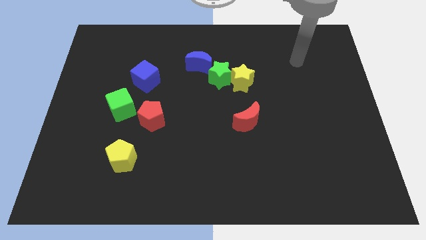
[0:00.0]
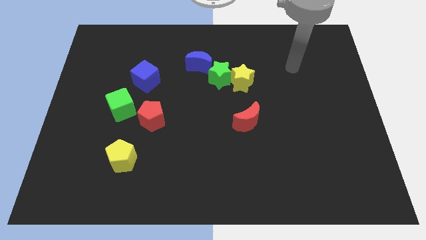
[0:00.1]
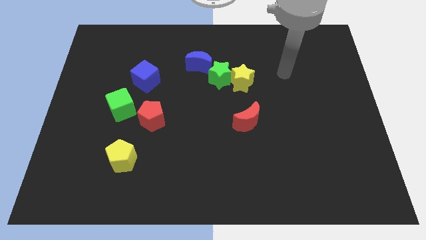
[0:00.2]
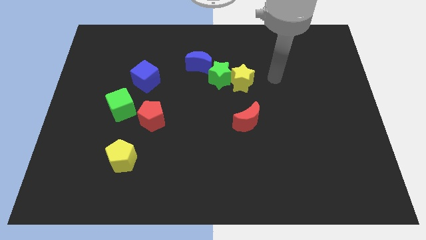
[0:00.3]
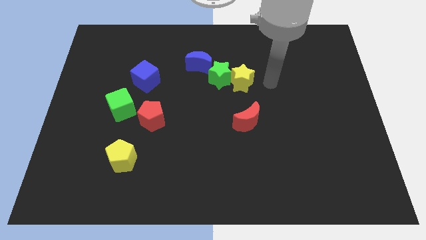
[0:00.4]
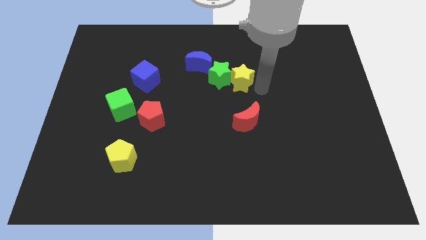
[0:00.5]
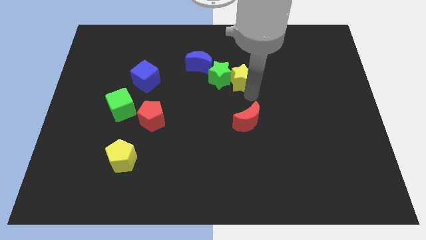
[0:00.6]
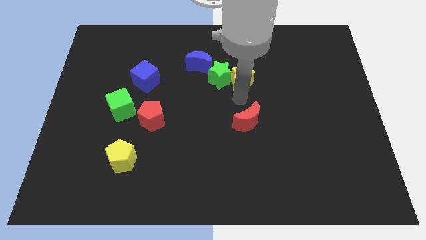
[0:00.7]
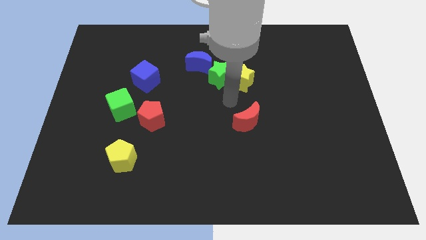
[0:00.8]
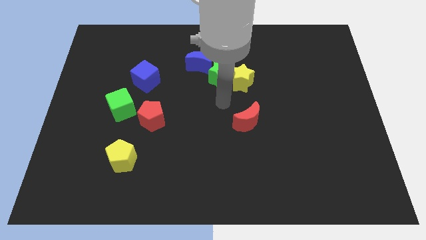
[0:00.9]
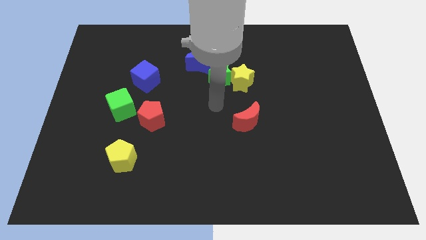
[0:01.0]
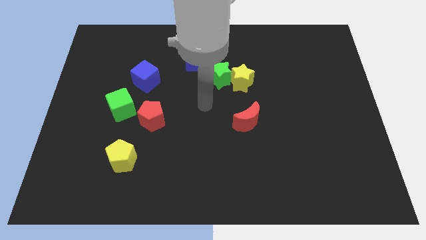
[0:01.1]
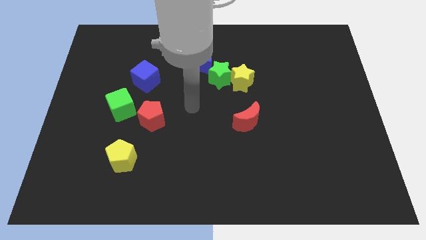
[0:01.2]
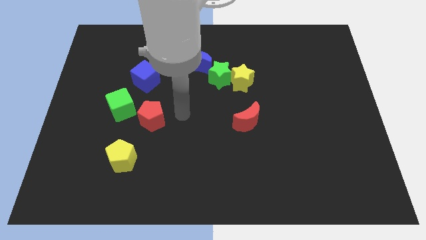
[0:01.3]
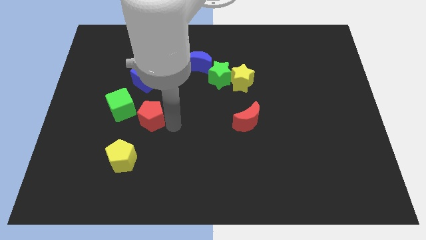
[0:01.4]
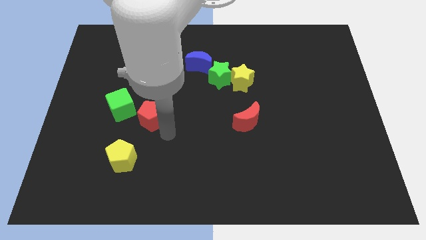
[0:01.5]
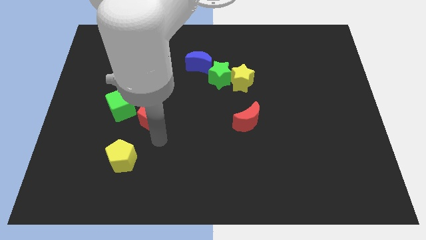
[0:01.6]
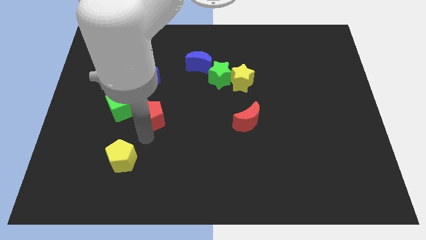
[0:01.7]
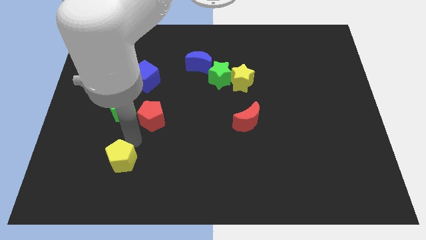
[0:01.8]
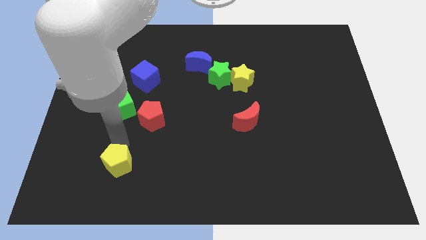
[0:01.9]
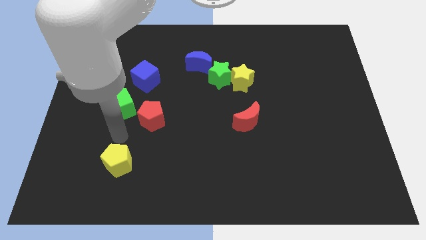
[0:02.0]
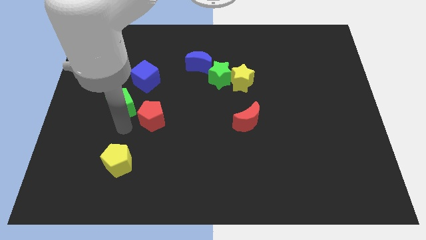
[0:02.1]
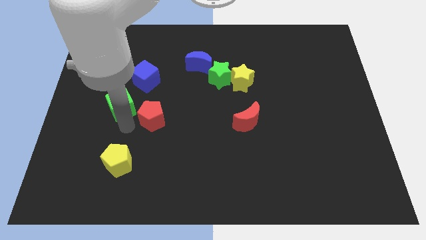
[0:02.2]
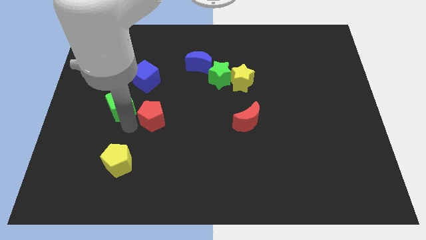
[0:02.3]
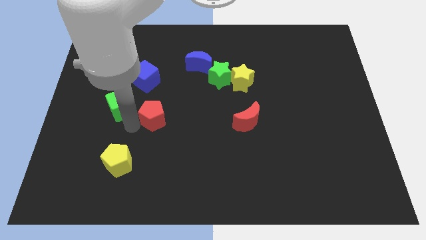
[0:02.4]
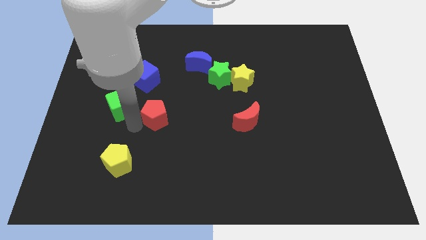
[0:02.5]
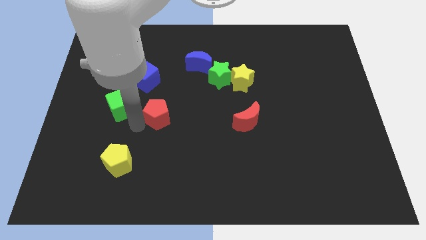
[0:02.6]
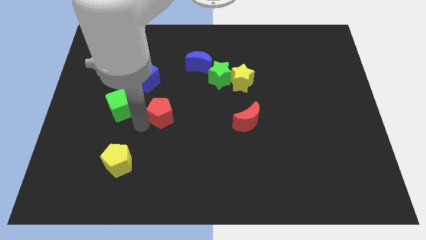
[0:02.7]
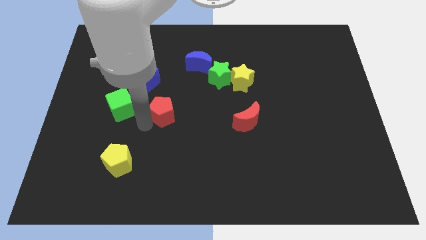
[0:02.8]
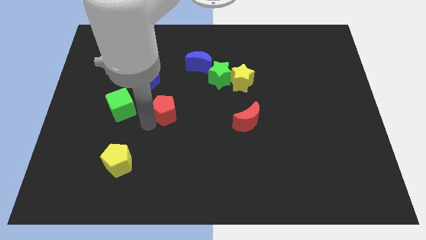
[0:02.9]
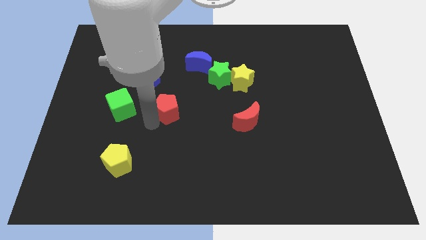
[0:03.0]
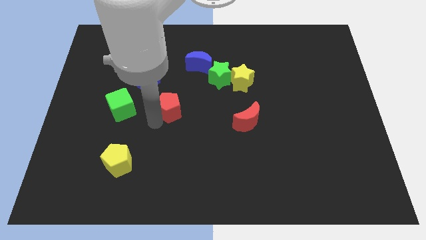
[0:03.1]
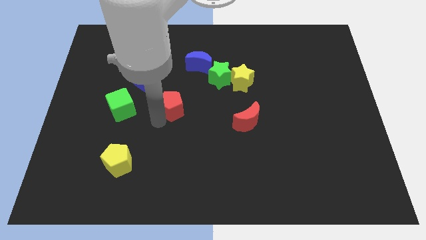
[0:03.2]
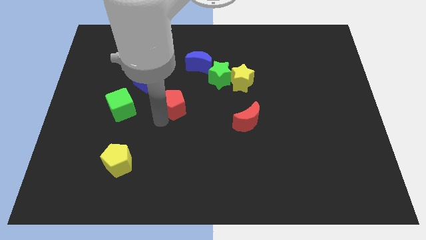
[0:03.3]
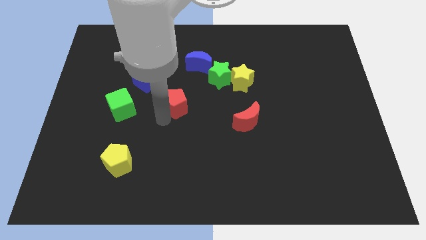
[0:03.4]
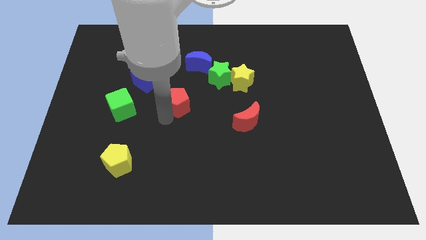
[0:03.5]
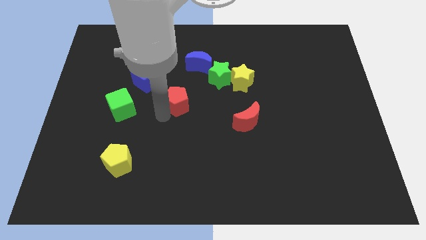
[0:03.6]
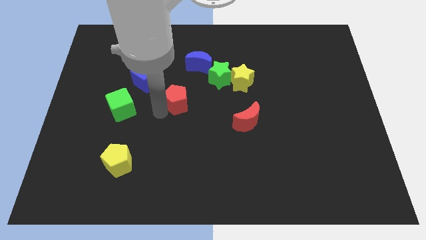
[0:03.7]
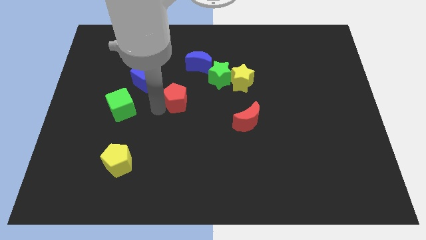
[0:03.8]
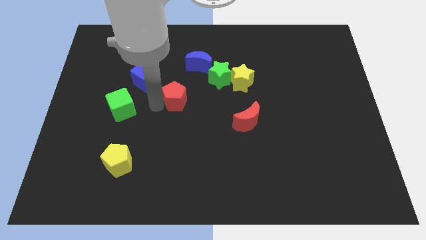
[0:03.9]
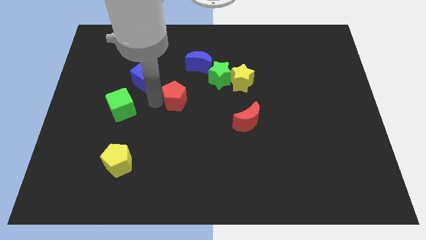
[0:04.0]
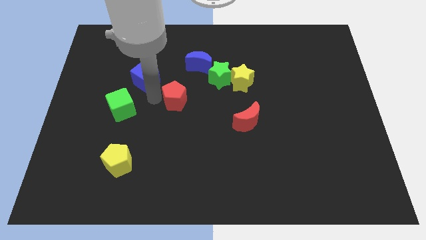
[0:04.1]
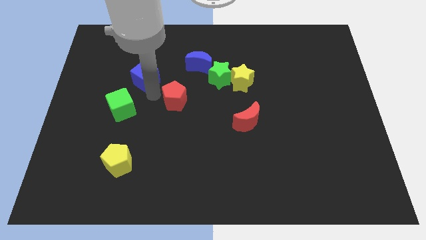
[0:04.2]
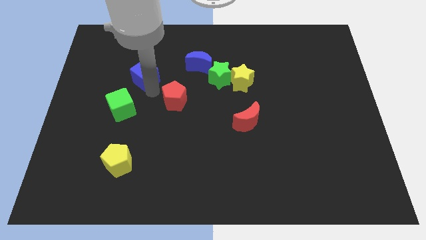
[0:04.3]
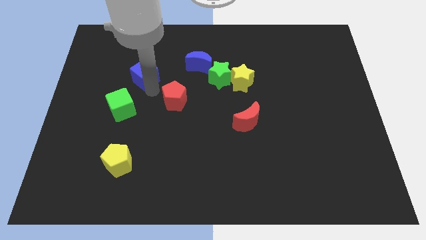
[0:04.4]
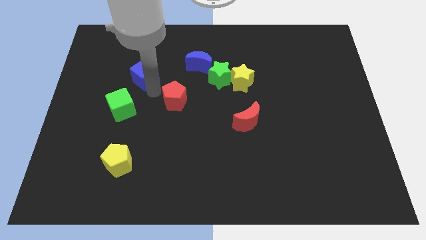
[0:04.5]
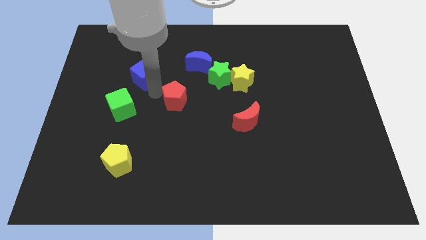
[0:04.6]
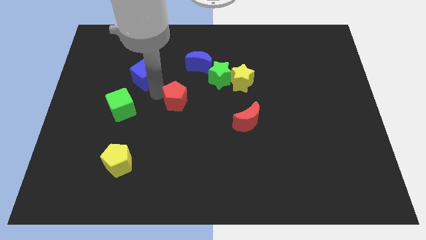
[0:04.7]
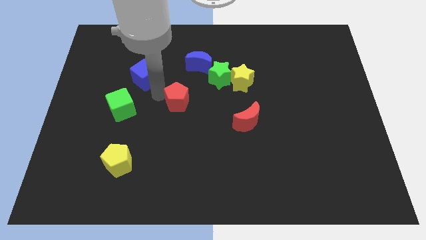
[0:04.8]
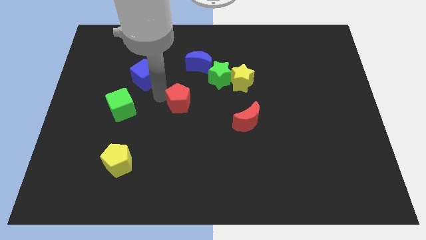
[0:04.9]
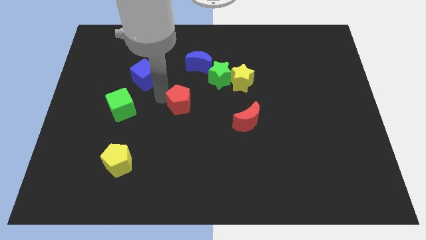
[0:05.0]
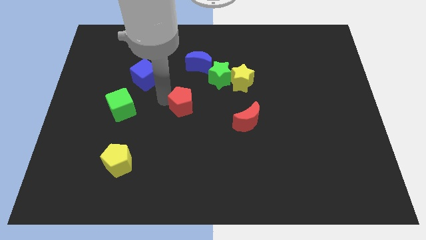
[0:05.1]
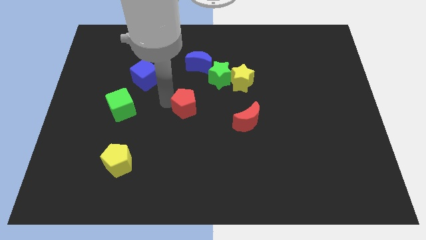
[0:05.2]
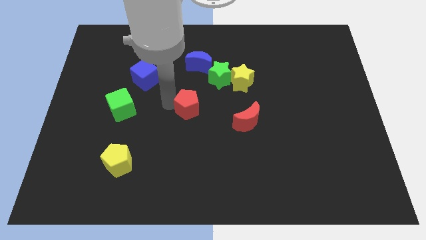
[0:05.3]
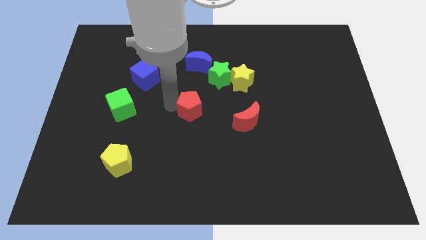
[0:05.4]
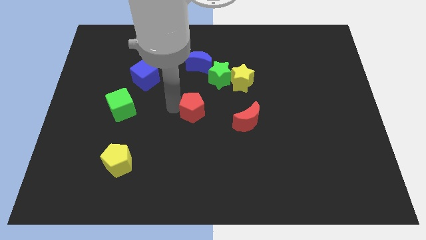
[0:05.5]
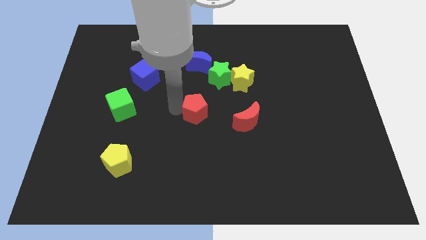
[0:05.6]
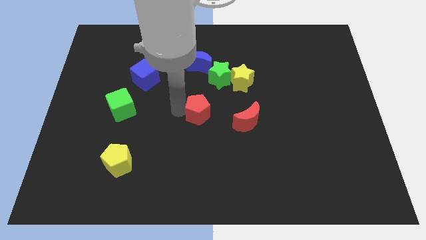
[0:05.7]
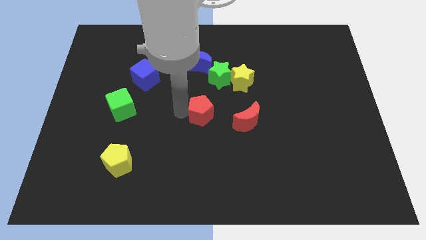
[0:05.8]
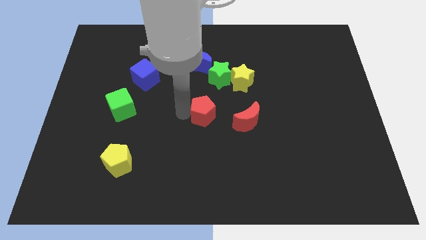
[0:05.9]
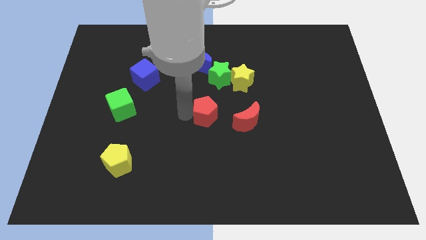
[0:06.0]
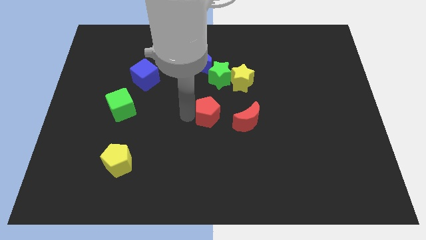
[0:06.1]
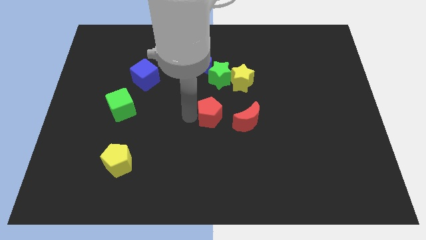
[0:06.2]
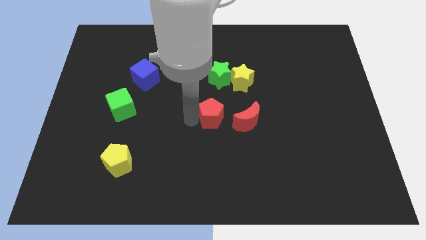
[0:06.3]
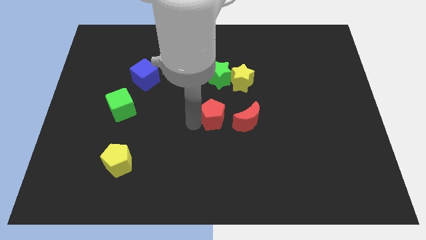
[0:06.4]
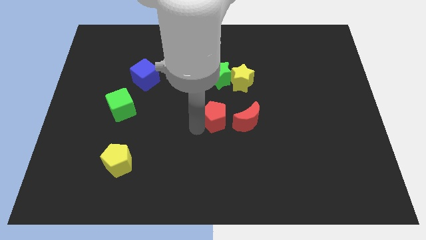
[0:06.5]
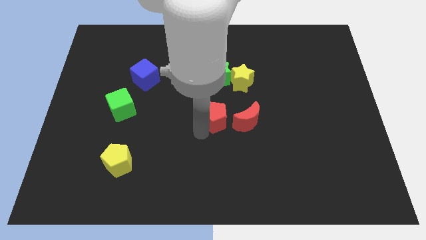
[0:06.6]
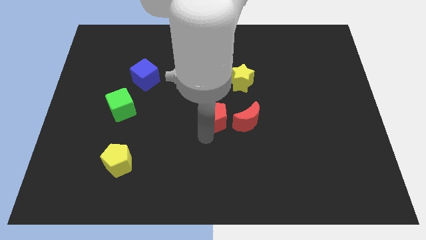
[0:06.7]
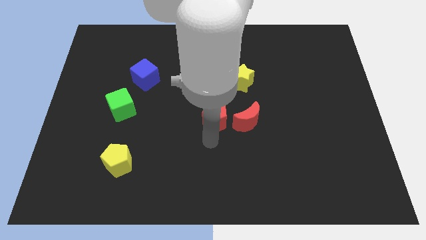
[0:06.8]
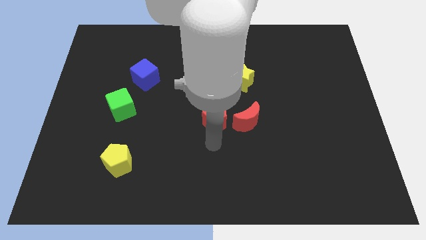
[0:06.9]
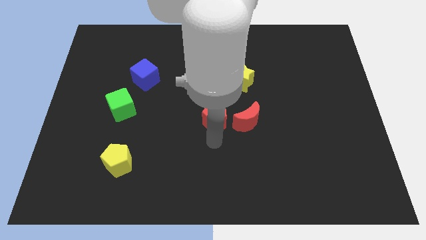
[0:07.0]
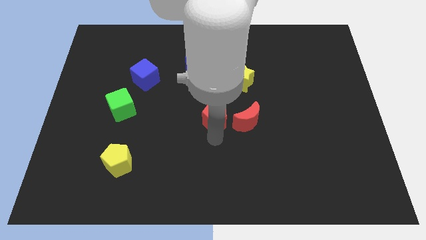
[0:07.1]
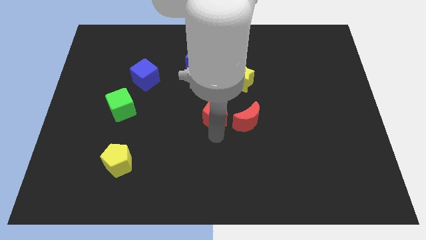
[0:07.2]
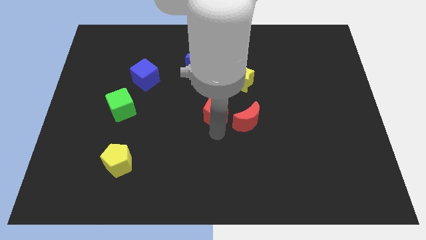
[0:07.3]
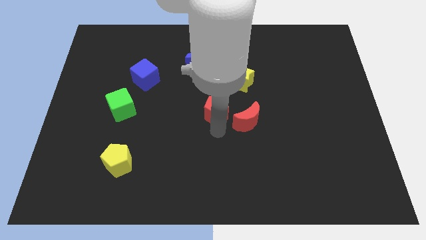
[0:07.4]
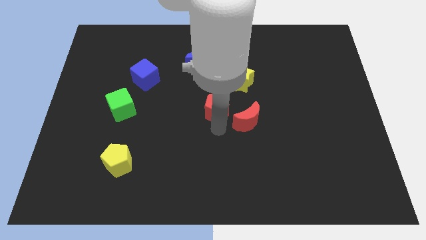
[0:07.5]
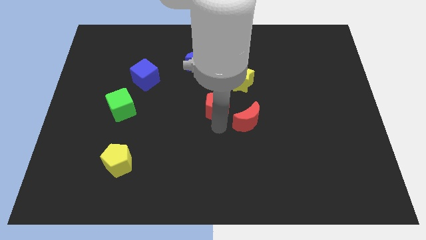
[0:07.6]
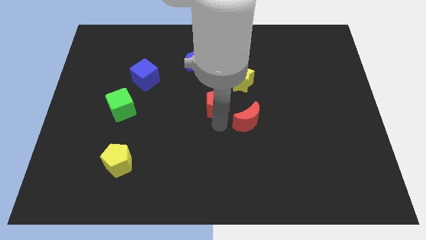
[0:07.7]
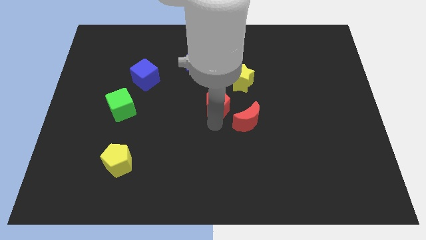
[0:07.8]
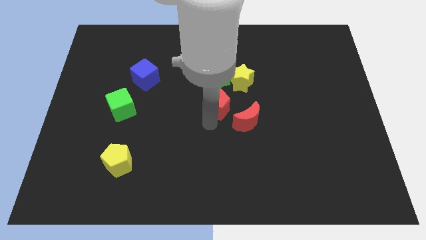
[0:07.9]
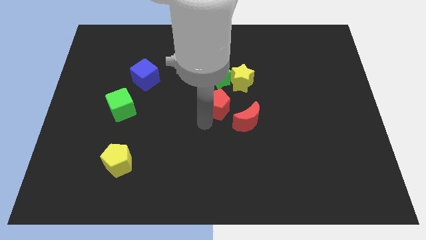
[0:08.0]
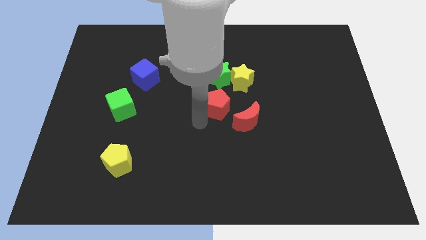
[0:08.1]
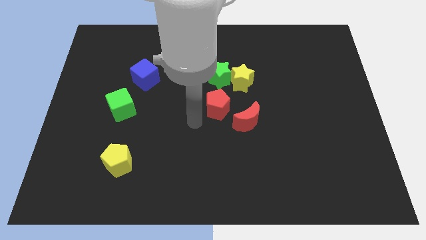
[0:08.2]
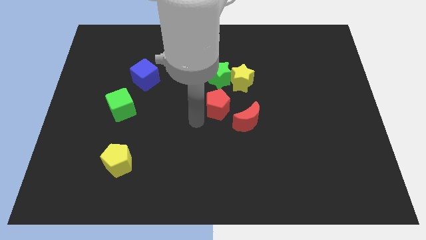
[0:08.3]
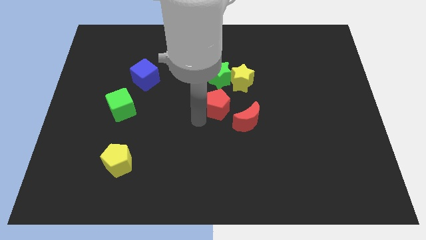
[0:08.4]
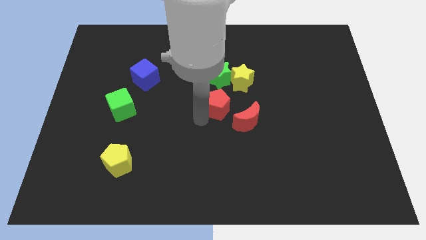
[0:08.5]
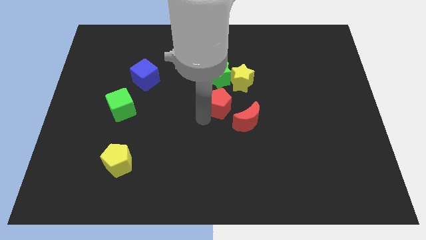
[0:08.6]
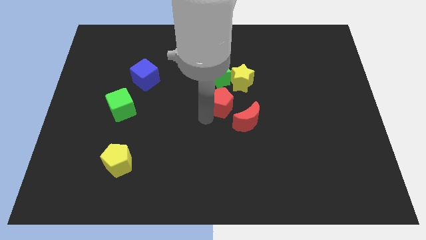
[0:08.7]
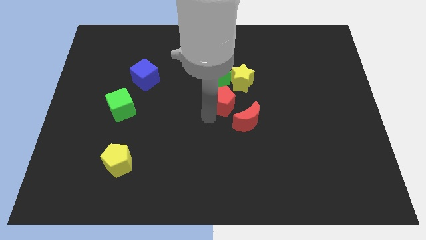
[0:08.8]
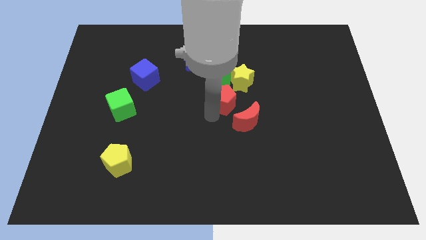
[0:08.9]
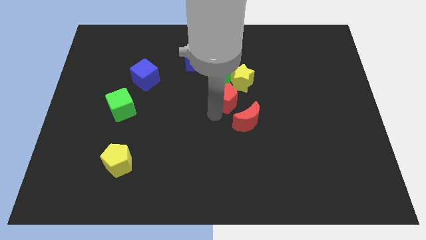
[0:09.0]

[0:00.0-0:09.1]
move the red pentagon to the bottom right of the green star
